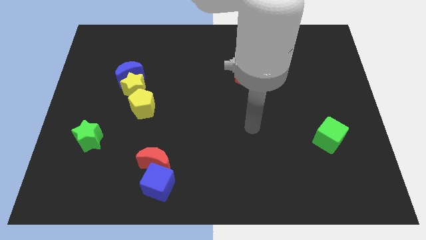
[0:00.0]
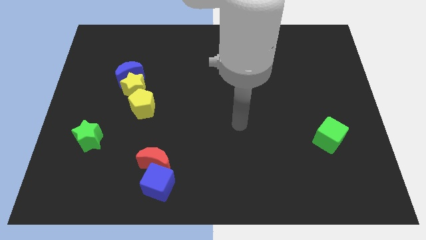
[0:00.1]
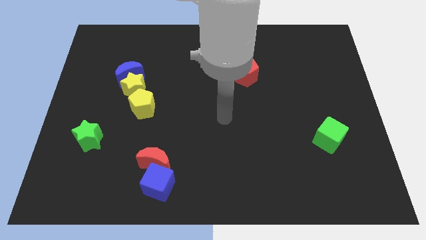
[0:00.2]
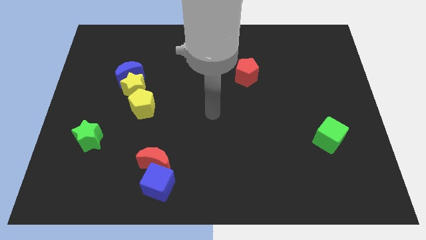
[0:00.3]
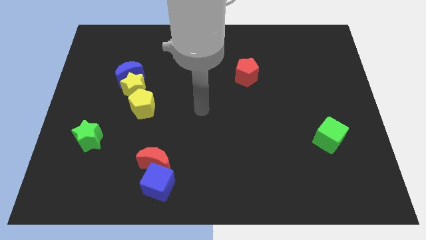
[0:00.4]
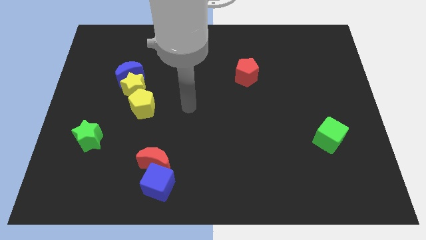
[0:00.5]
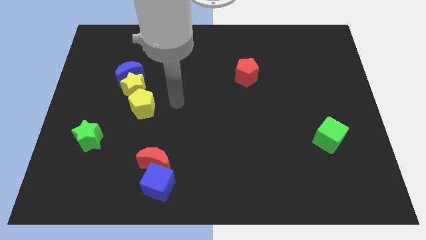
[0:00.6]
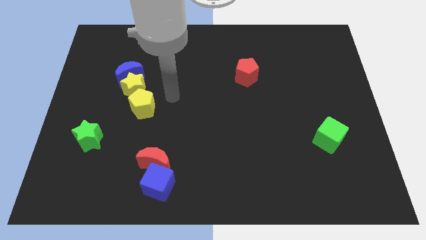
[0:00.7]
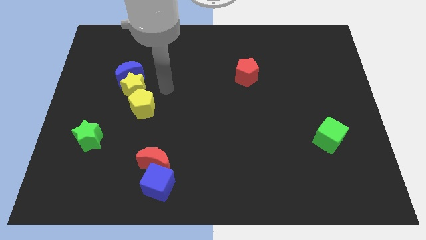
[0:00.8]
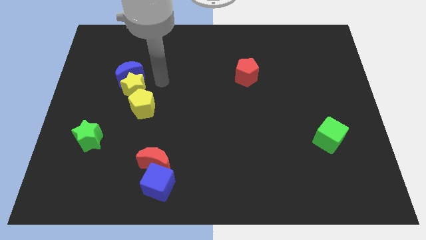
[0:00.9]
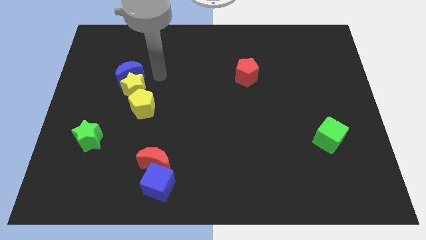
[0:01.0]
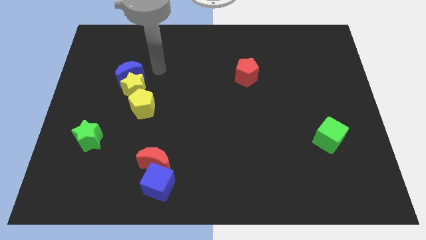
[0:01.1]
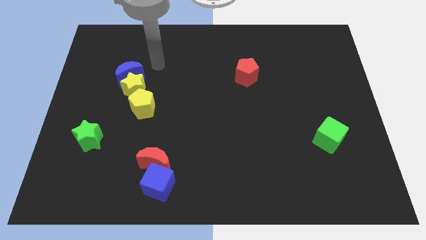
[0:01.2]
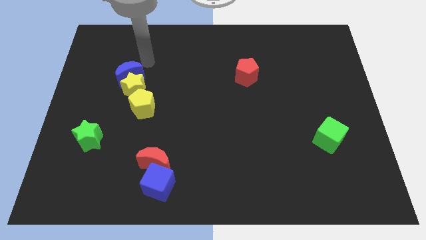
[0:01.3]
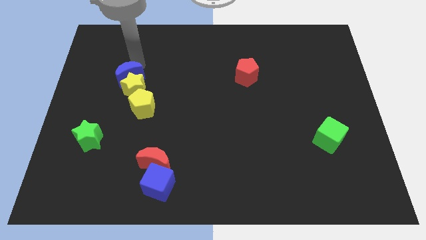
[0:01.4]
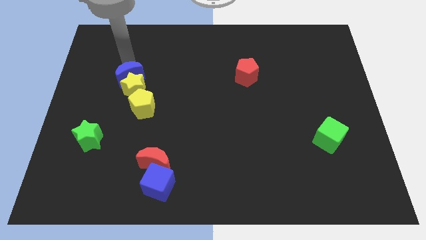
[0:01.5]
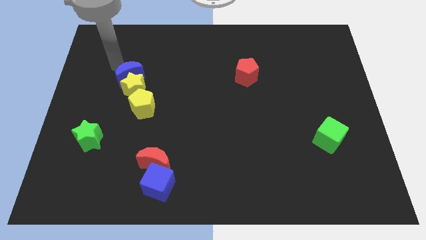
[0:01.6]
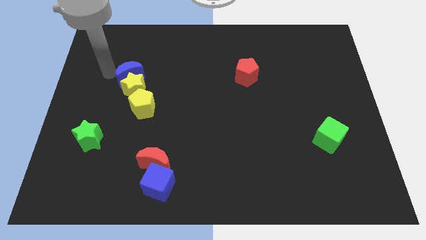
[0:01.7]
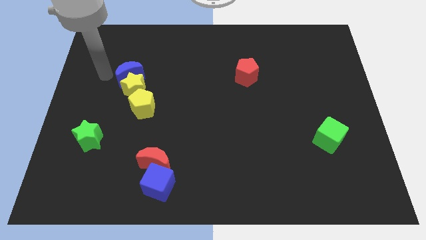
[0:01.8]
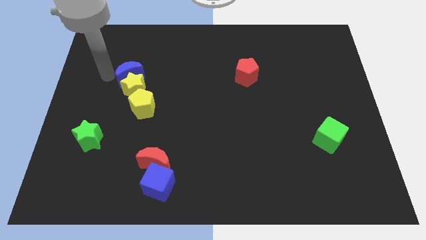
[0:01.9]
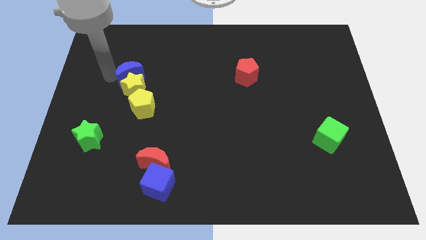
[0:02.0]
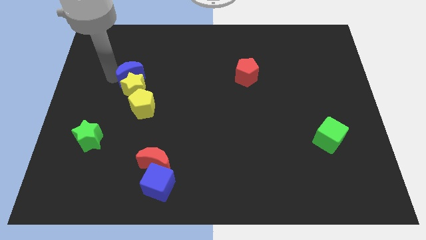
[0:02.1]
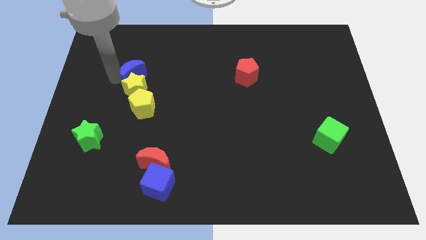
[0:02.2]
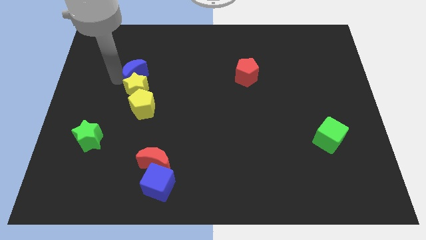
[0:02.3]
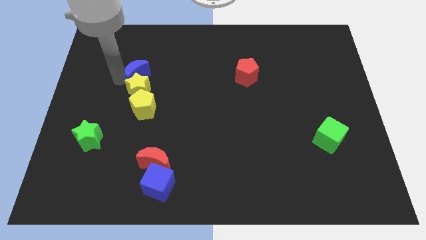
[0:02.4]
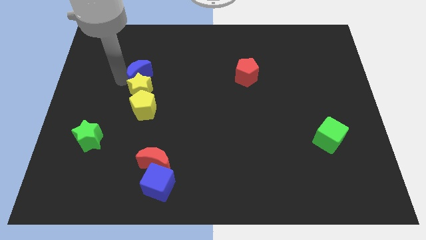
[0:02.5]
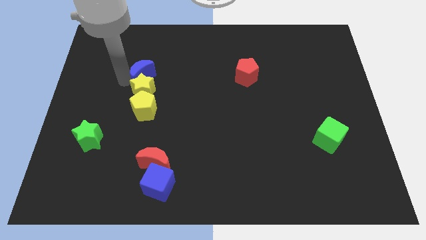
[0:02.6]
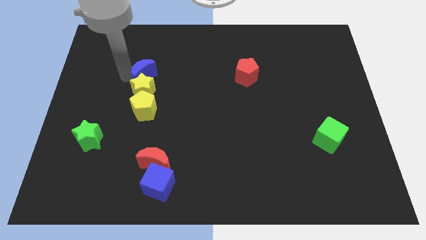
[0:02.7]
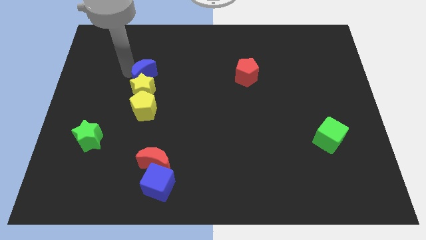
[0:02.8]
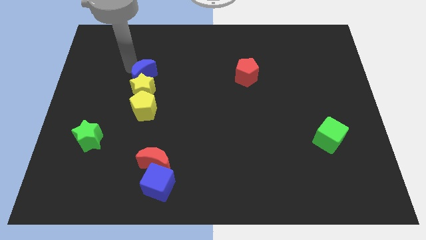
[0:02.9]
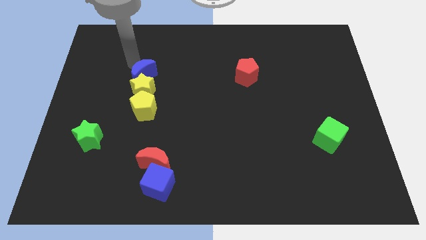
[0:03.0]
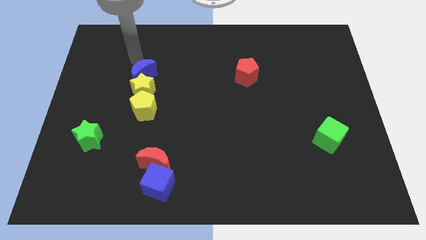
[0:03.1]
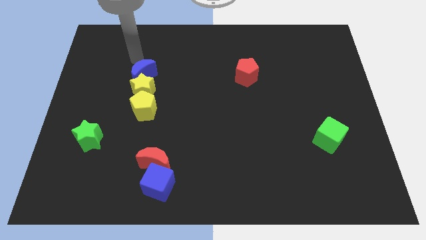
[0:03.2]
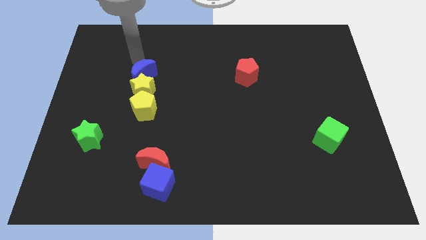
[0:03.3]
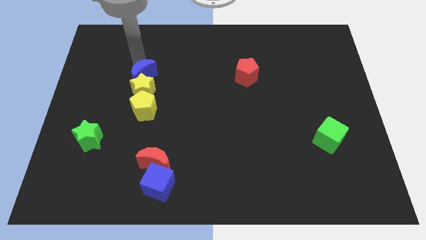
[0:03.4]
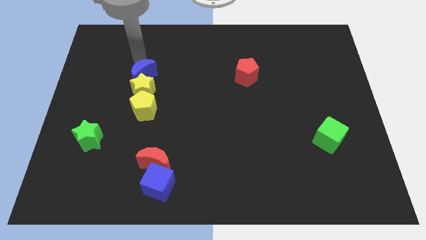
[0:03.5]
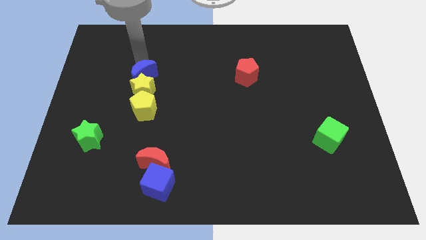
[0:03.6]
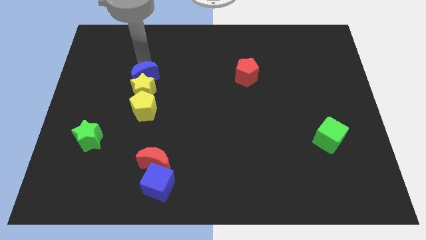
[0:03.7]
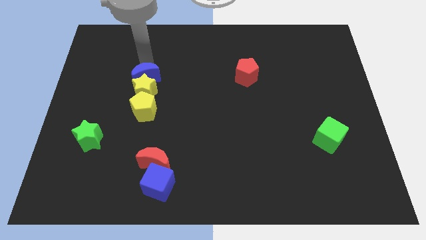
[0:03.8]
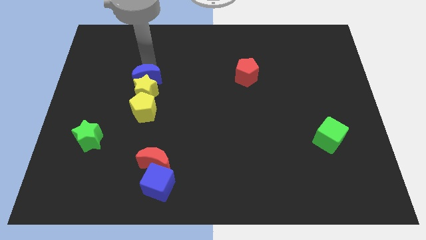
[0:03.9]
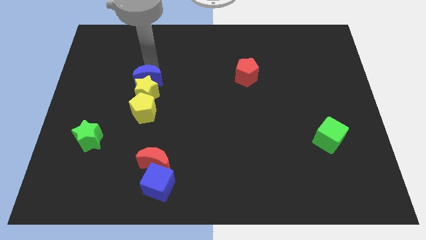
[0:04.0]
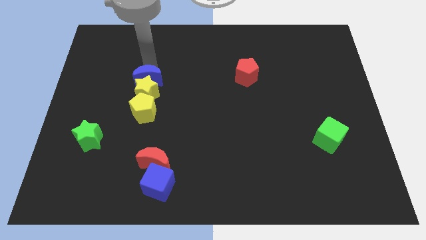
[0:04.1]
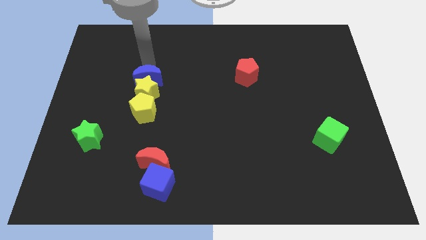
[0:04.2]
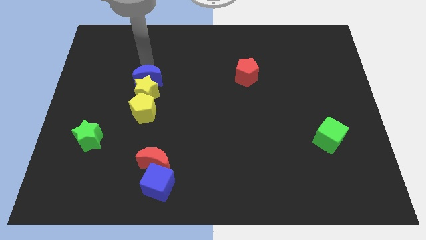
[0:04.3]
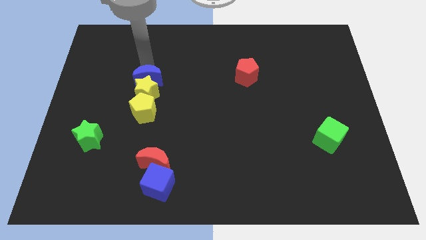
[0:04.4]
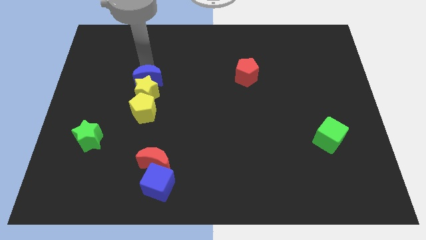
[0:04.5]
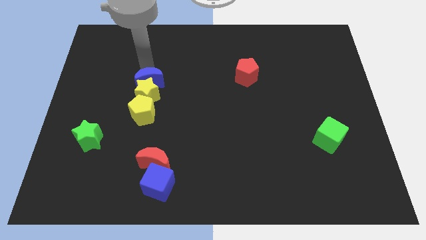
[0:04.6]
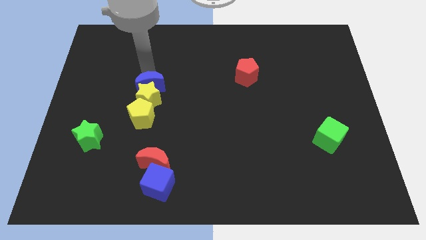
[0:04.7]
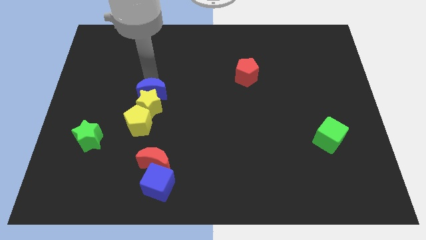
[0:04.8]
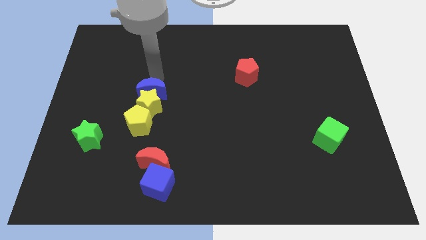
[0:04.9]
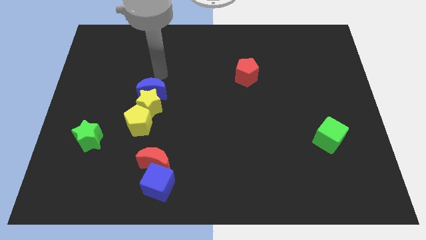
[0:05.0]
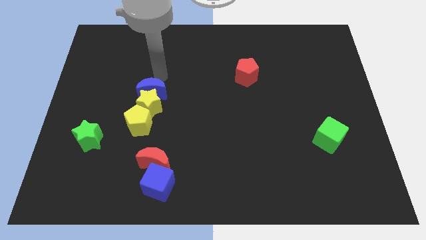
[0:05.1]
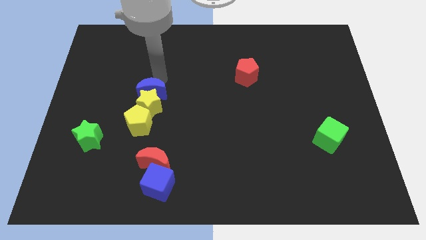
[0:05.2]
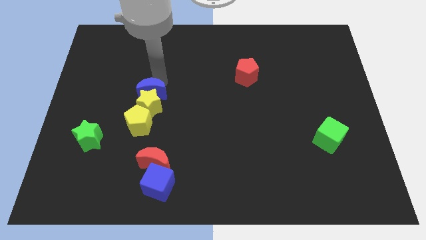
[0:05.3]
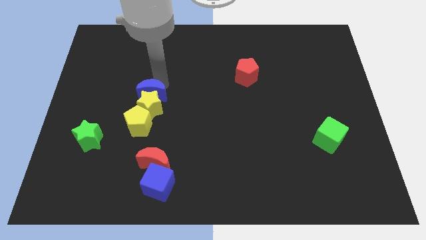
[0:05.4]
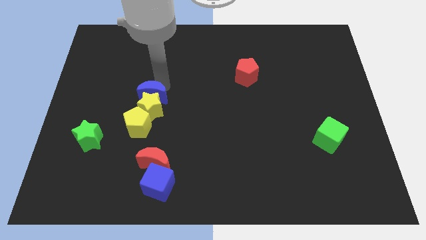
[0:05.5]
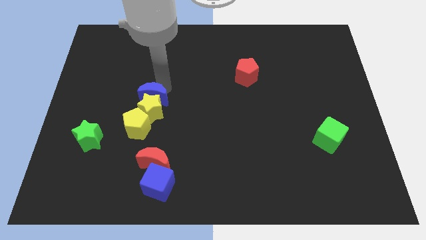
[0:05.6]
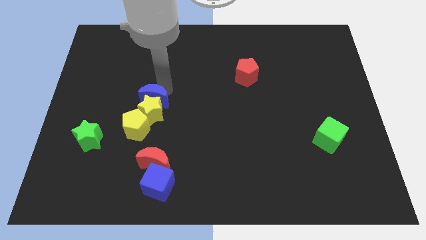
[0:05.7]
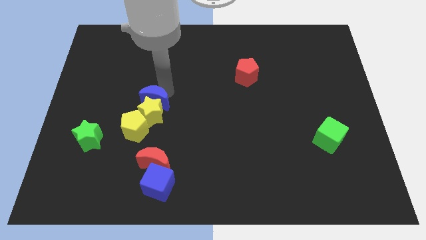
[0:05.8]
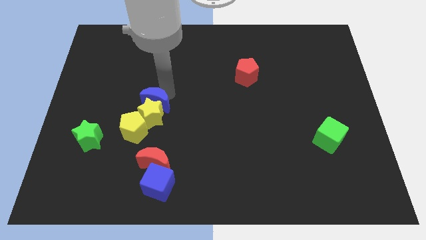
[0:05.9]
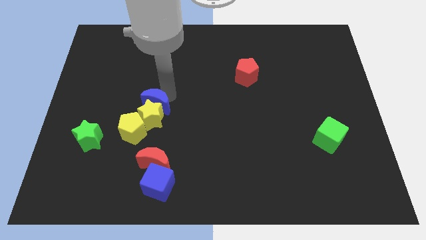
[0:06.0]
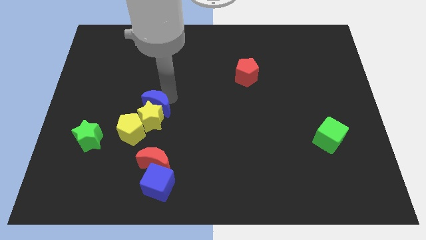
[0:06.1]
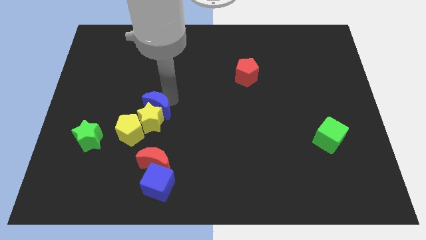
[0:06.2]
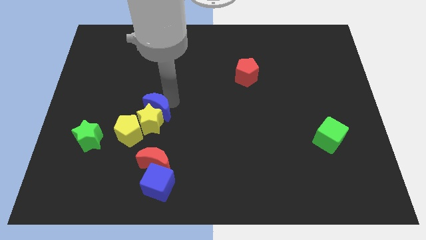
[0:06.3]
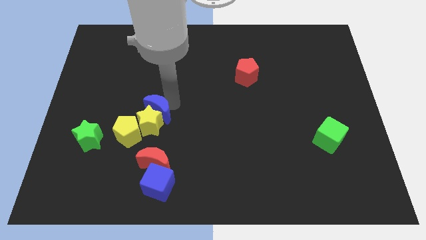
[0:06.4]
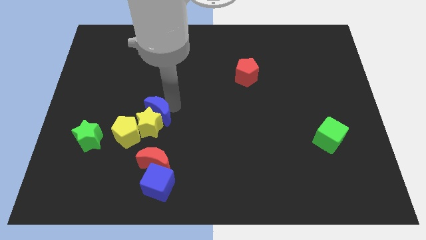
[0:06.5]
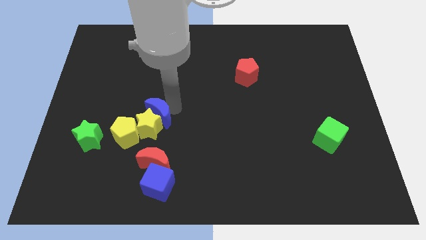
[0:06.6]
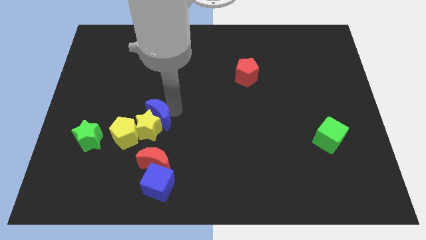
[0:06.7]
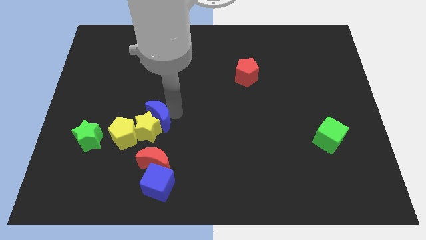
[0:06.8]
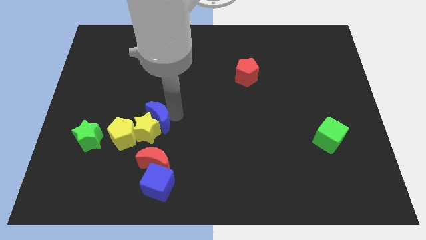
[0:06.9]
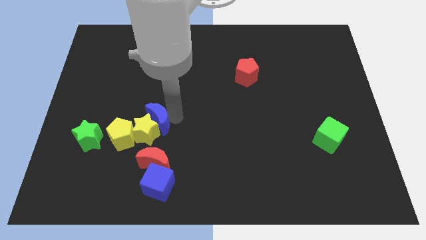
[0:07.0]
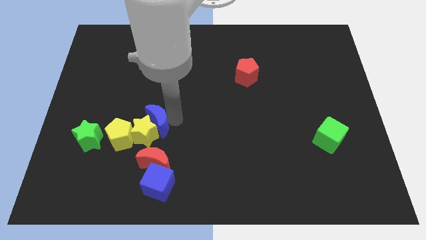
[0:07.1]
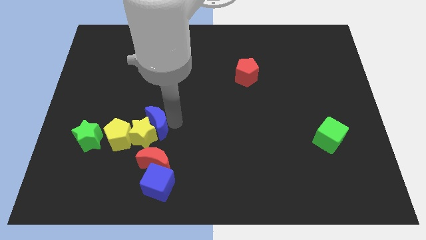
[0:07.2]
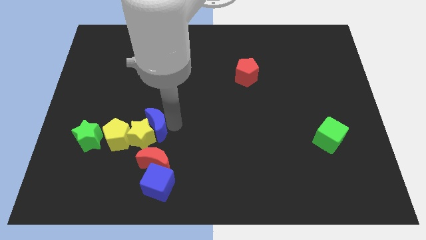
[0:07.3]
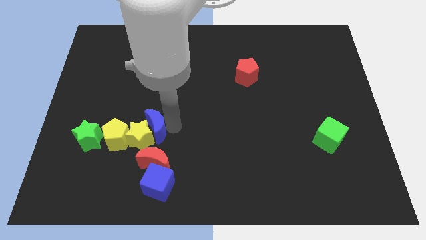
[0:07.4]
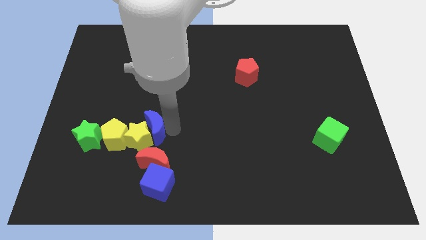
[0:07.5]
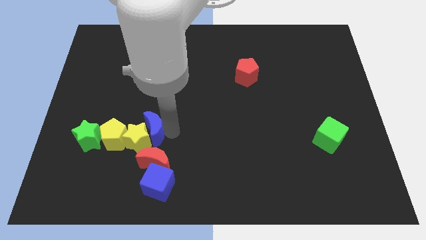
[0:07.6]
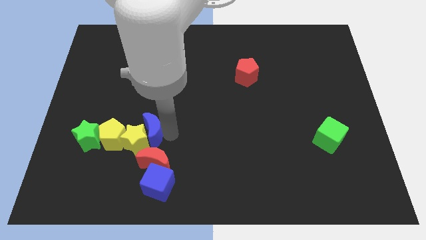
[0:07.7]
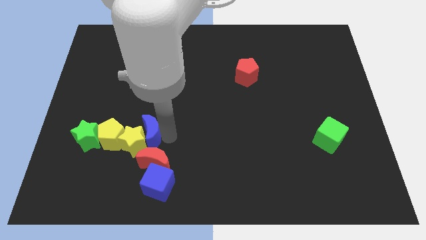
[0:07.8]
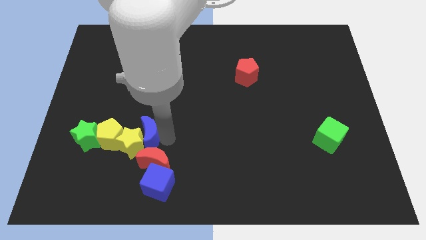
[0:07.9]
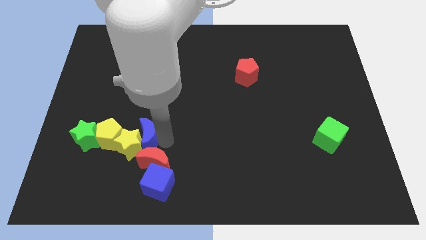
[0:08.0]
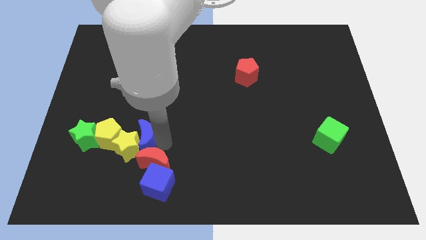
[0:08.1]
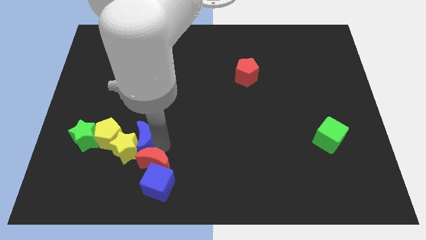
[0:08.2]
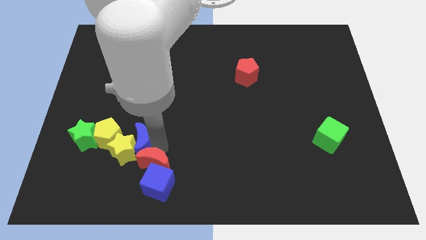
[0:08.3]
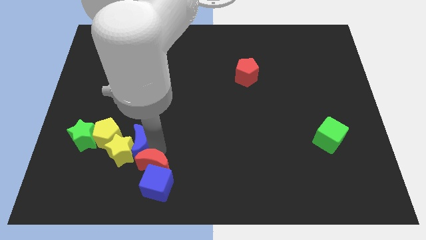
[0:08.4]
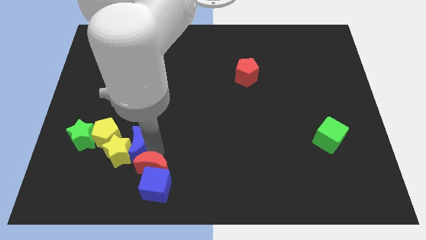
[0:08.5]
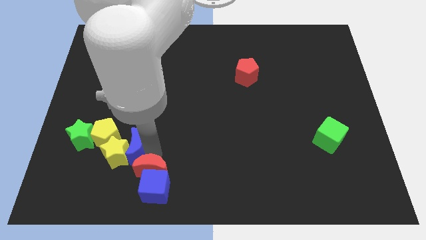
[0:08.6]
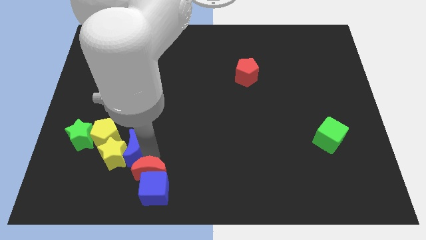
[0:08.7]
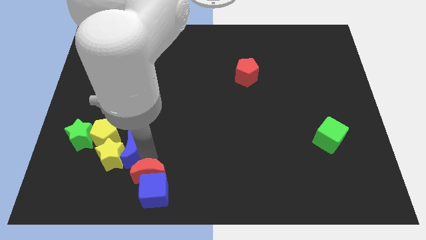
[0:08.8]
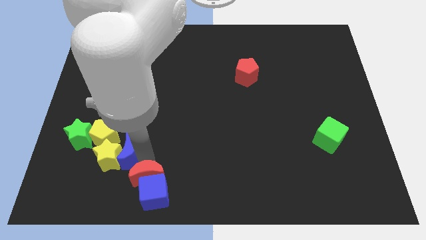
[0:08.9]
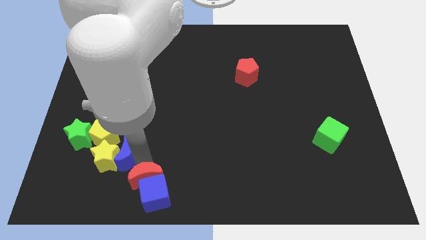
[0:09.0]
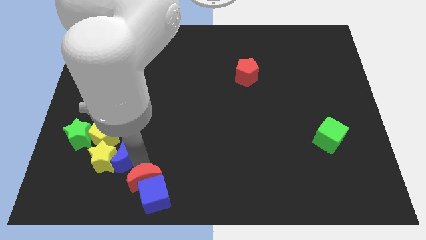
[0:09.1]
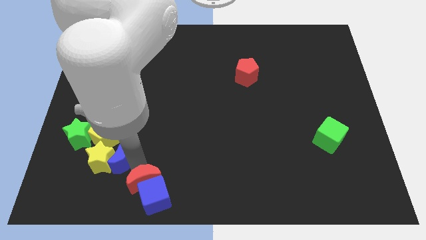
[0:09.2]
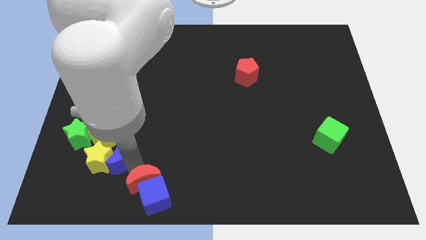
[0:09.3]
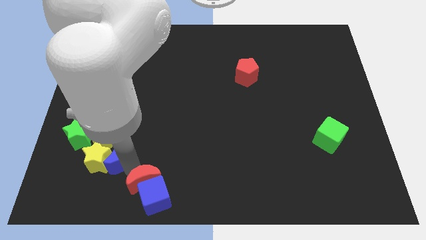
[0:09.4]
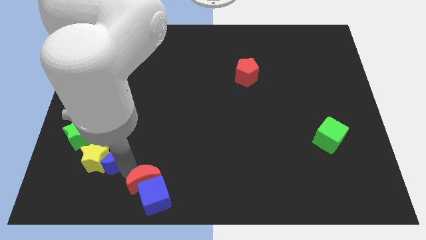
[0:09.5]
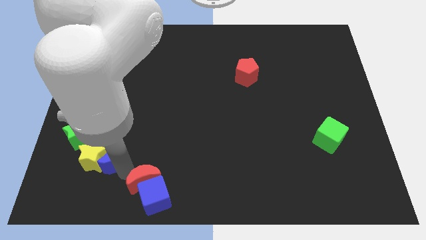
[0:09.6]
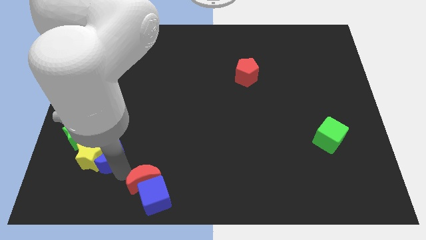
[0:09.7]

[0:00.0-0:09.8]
push the blue moon towards the yellow pentagon
